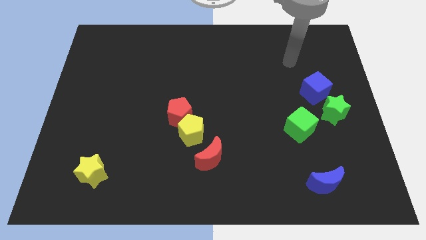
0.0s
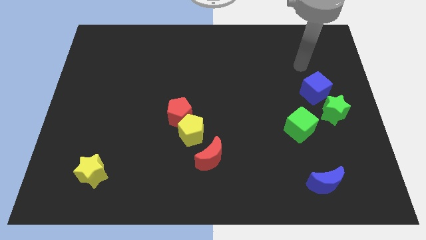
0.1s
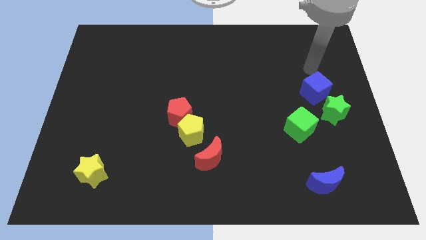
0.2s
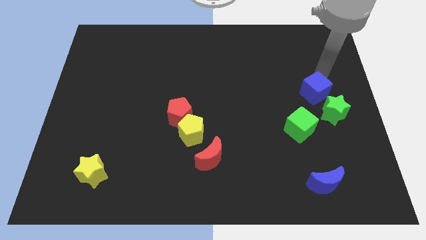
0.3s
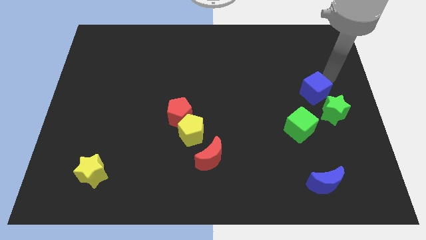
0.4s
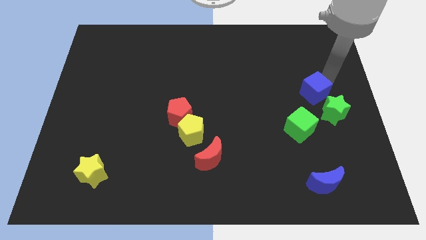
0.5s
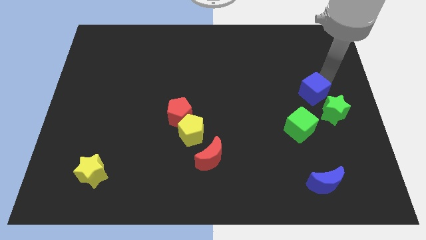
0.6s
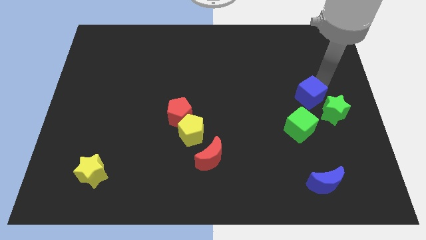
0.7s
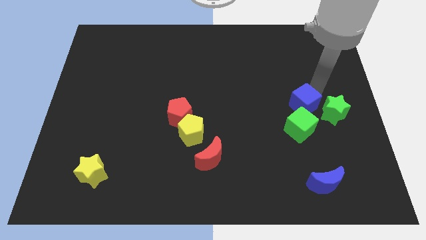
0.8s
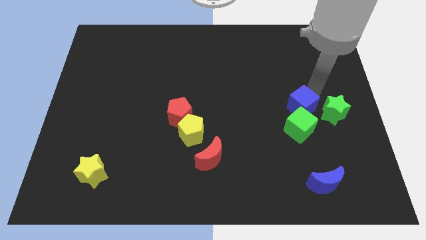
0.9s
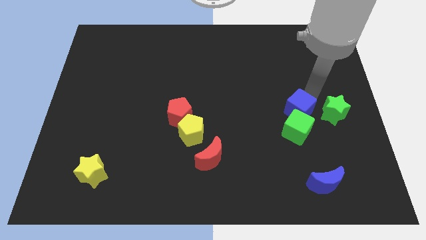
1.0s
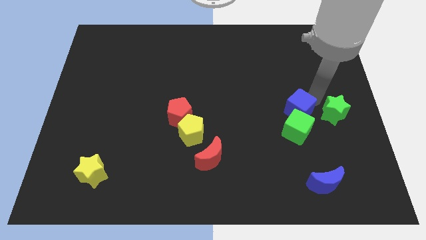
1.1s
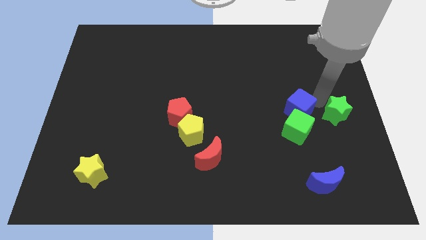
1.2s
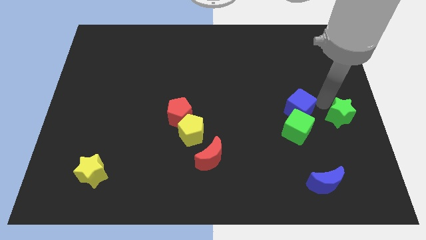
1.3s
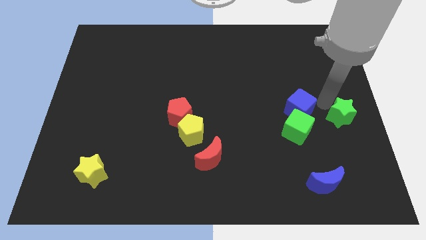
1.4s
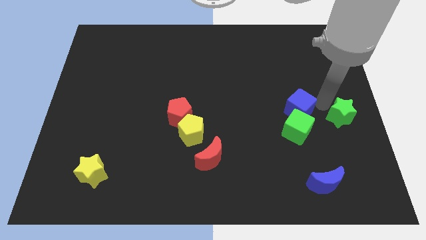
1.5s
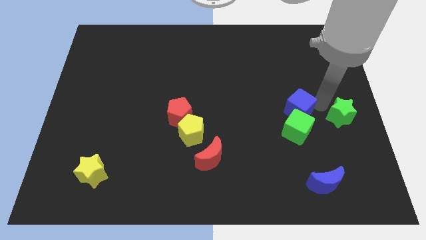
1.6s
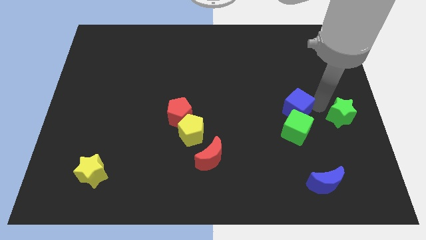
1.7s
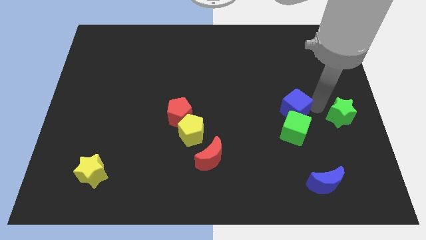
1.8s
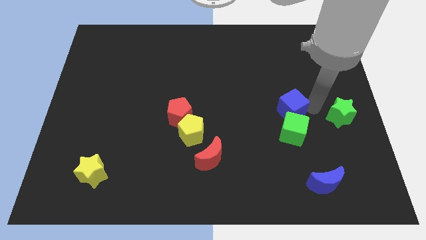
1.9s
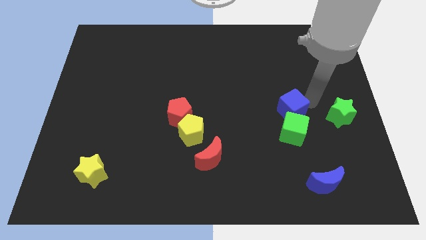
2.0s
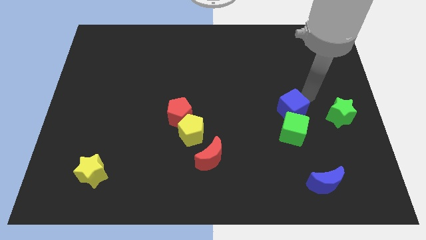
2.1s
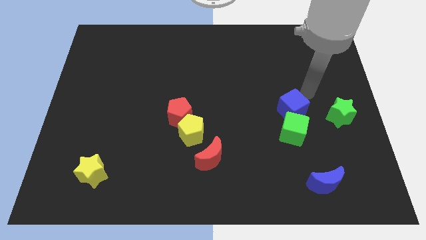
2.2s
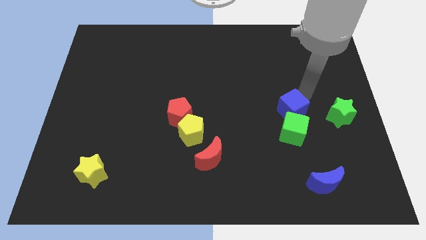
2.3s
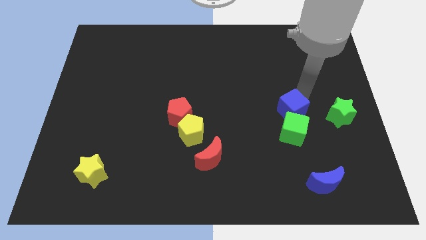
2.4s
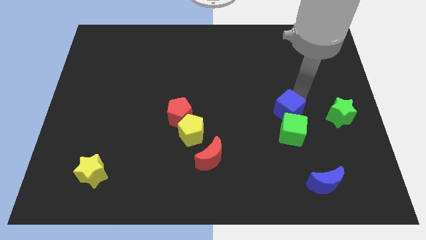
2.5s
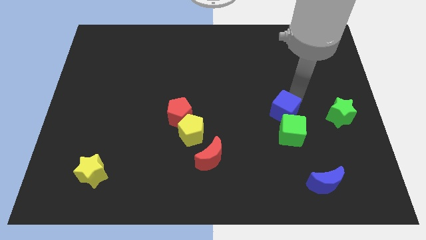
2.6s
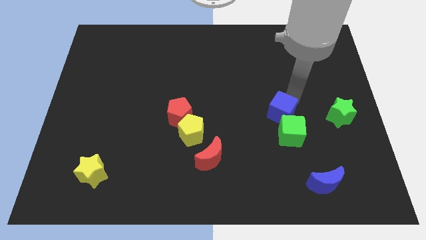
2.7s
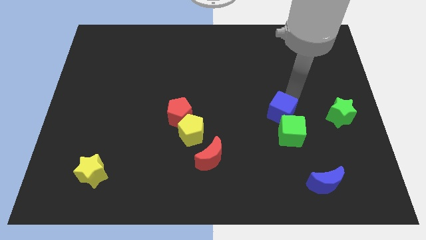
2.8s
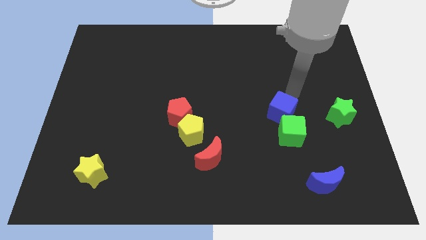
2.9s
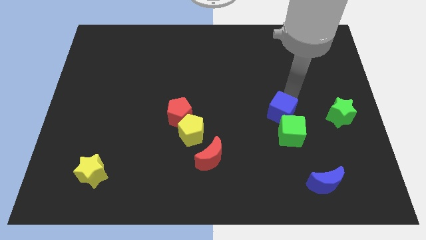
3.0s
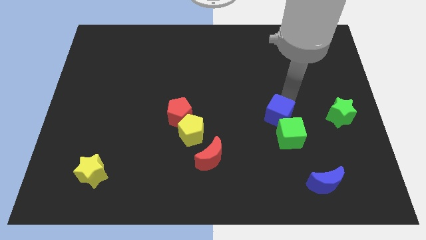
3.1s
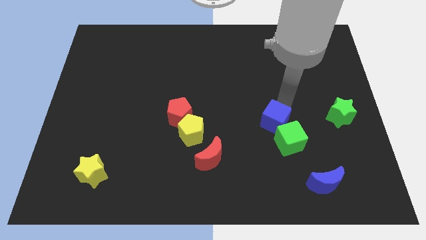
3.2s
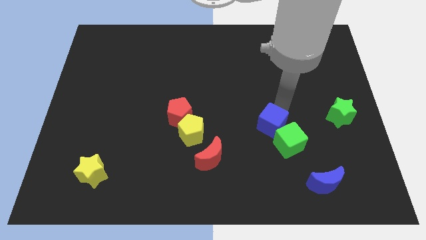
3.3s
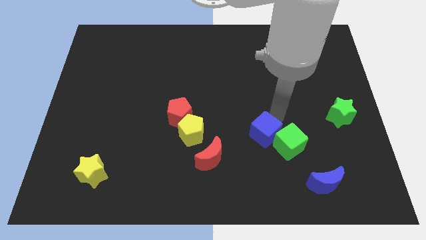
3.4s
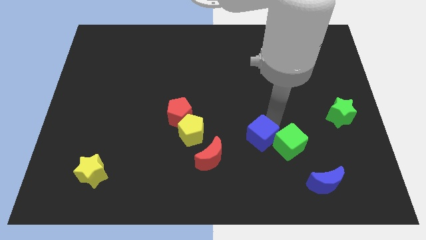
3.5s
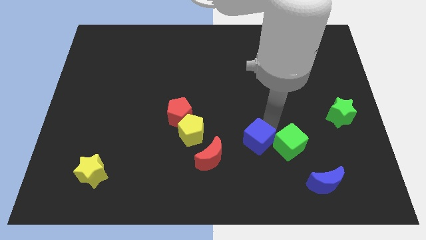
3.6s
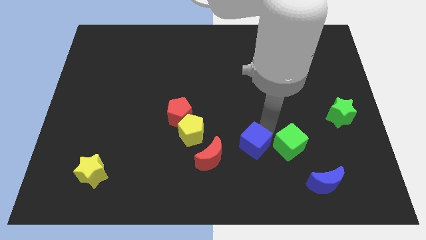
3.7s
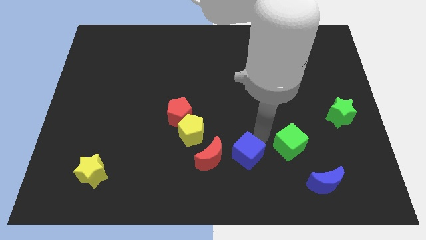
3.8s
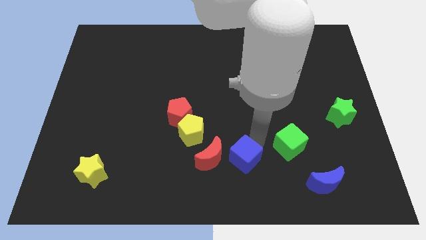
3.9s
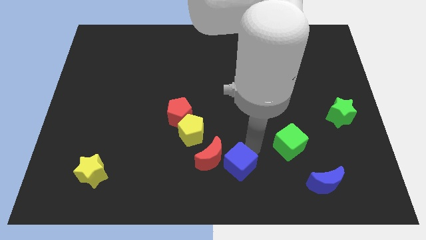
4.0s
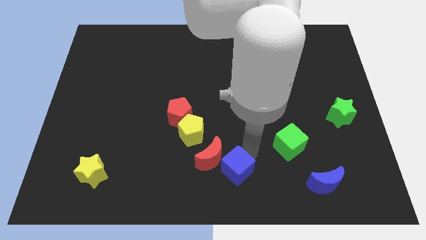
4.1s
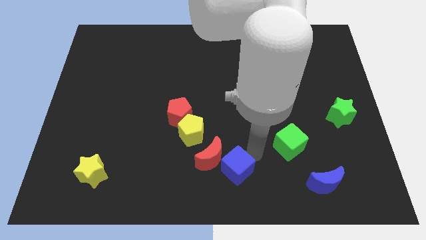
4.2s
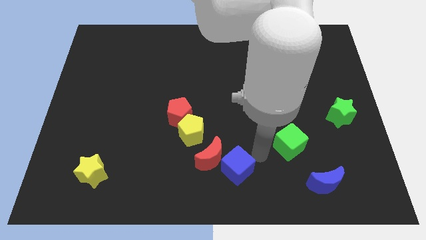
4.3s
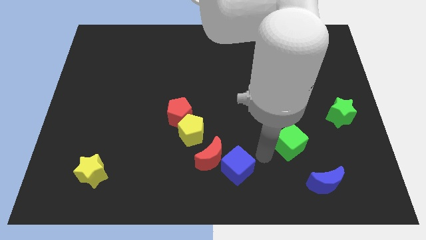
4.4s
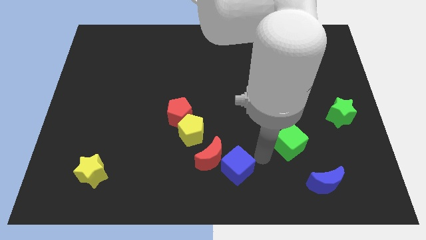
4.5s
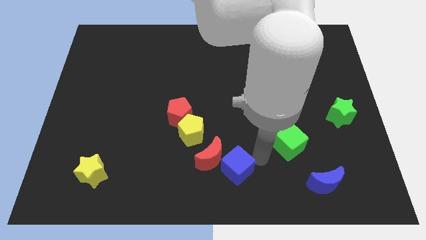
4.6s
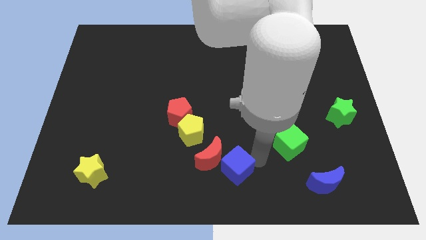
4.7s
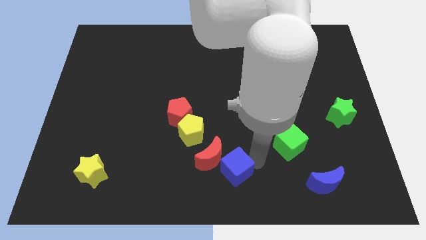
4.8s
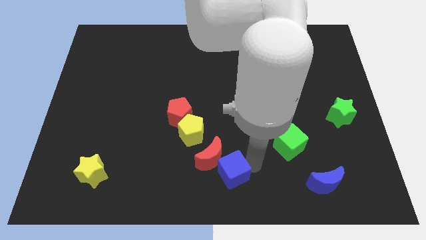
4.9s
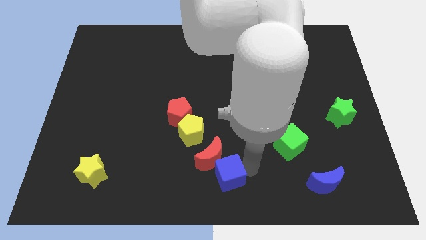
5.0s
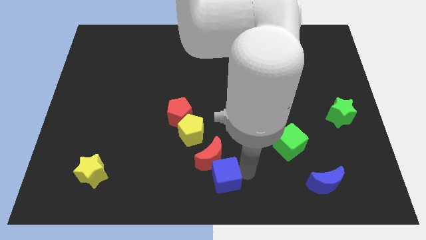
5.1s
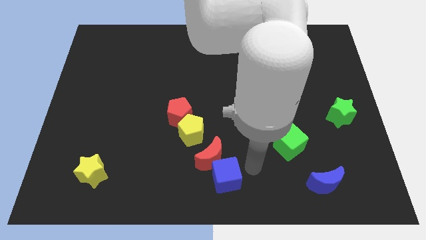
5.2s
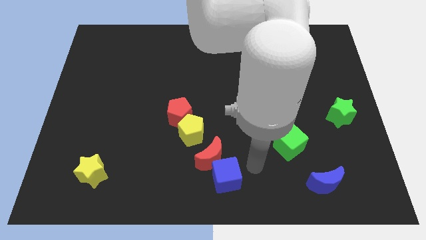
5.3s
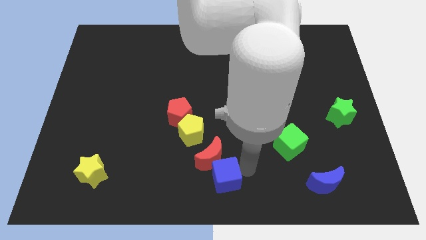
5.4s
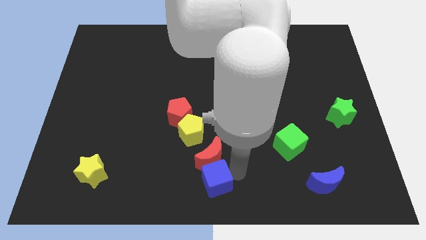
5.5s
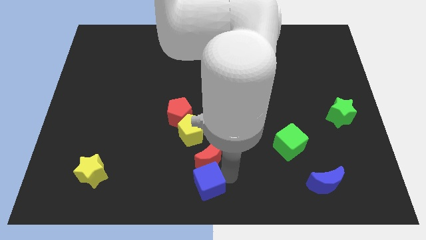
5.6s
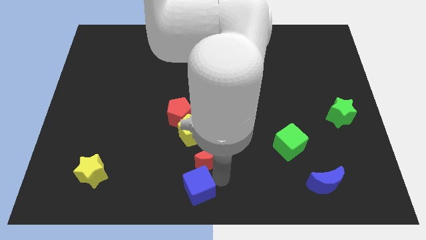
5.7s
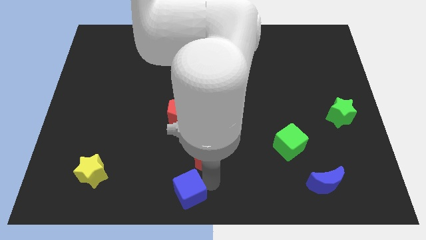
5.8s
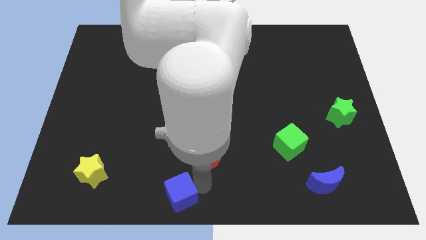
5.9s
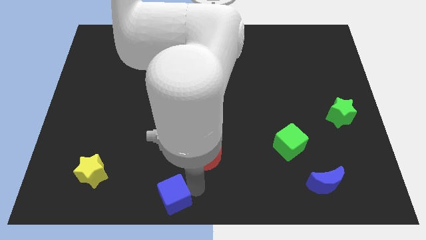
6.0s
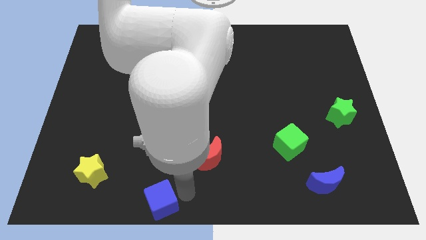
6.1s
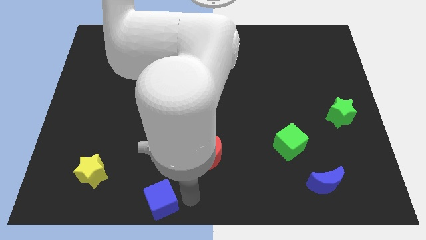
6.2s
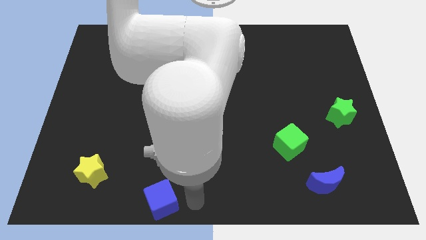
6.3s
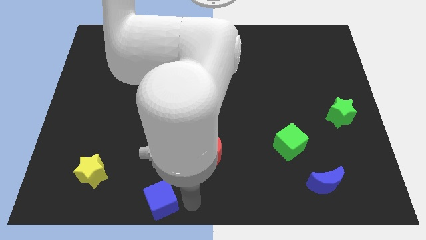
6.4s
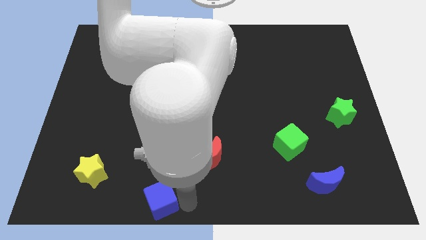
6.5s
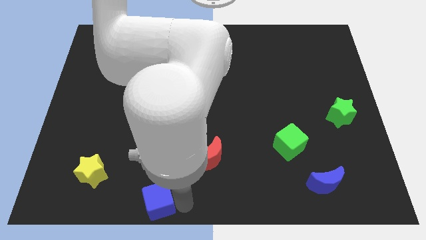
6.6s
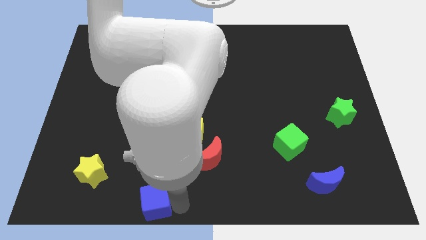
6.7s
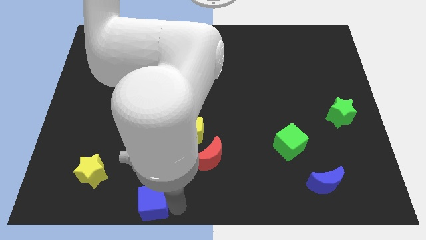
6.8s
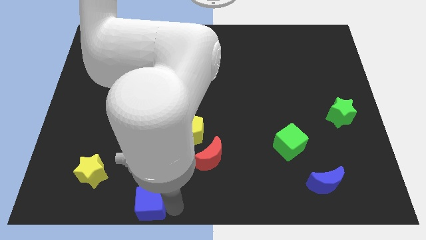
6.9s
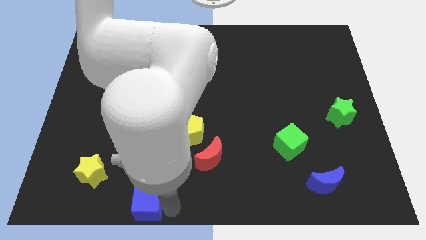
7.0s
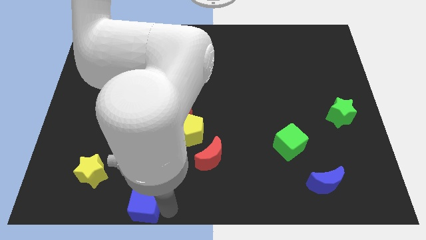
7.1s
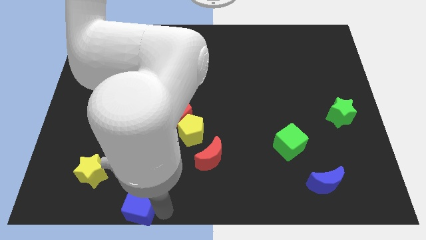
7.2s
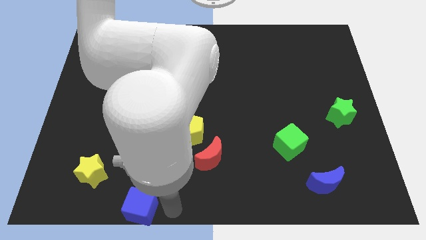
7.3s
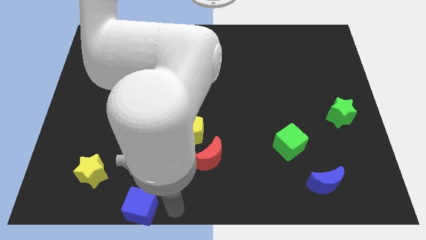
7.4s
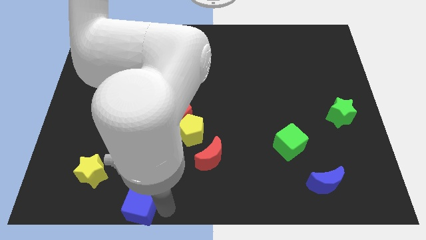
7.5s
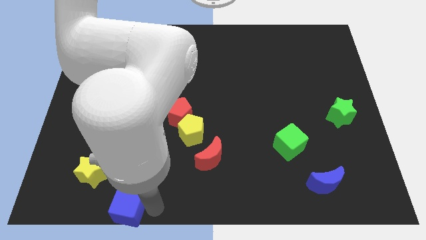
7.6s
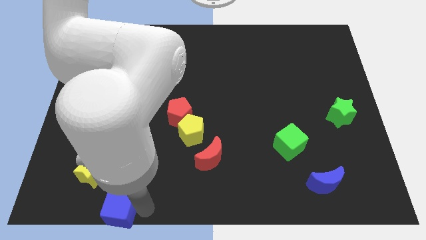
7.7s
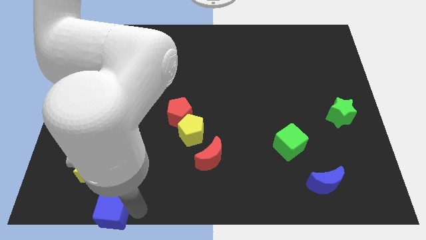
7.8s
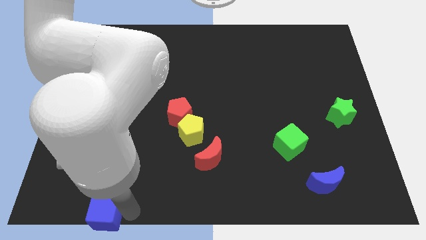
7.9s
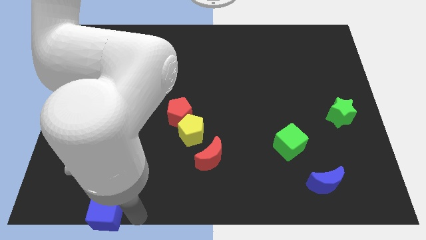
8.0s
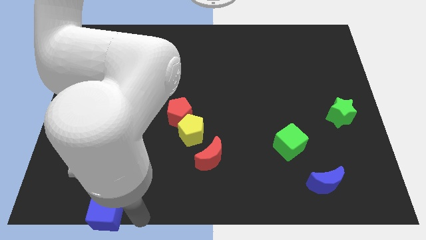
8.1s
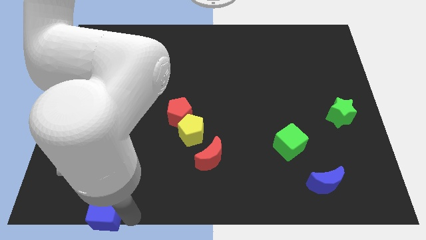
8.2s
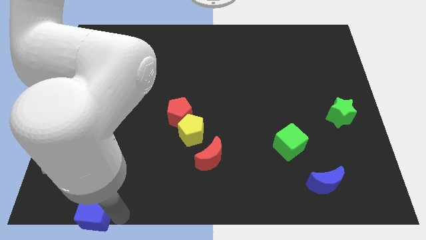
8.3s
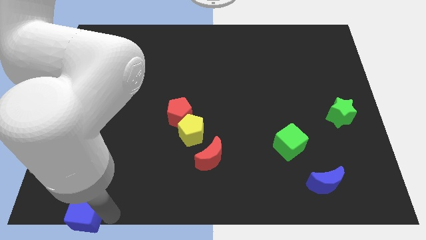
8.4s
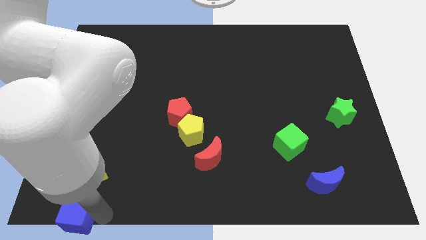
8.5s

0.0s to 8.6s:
put the blue cube to the bottom left of the board
